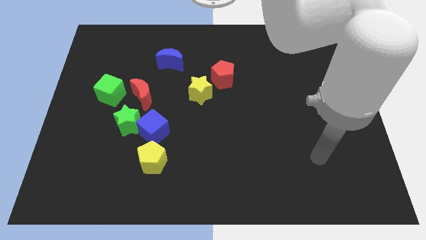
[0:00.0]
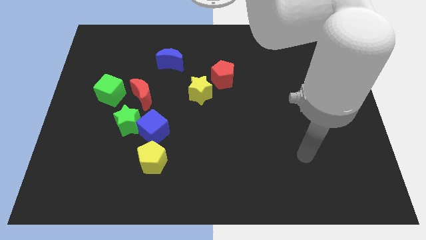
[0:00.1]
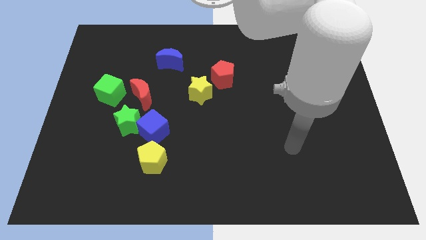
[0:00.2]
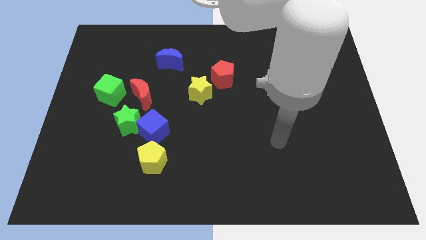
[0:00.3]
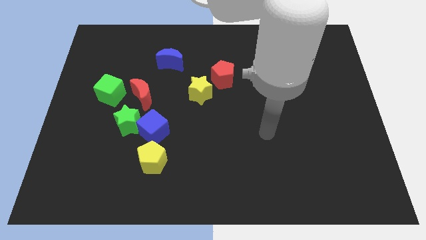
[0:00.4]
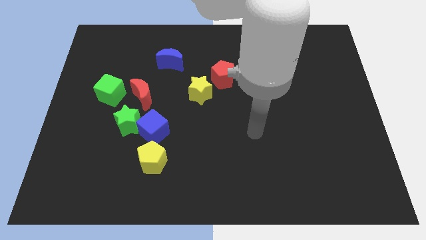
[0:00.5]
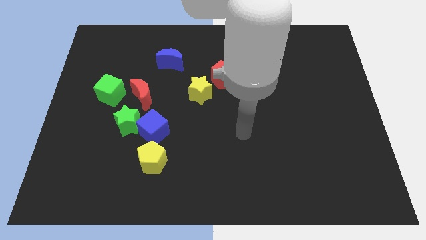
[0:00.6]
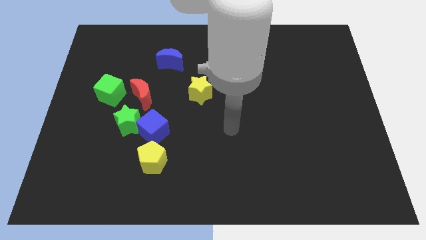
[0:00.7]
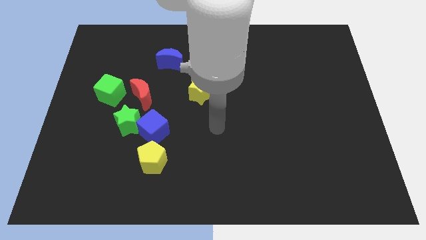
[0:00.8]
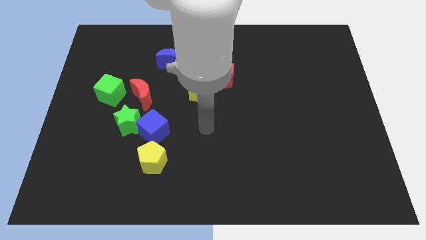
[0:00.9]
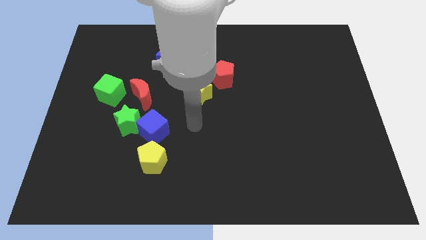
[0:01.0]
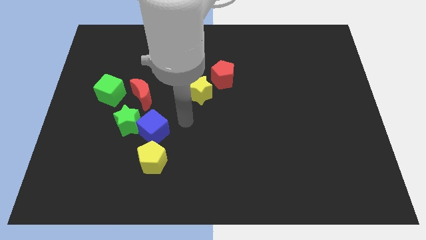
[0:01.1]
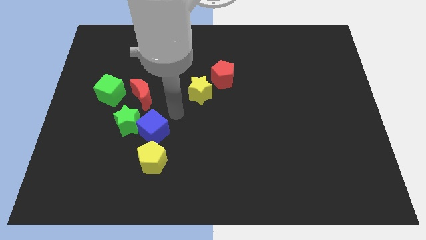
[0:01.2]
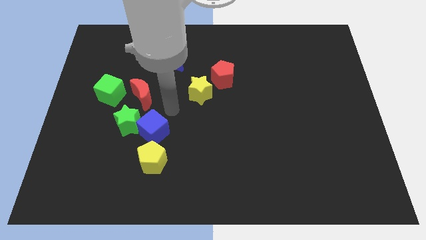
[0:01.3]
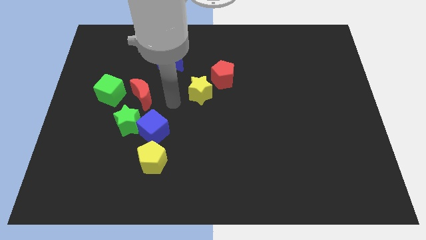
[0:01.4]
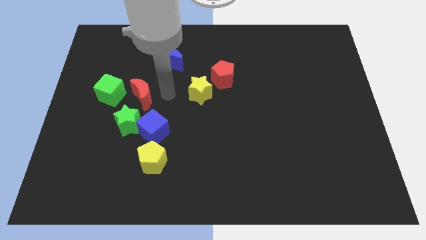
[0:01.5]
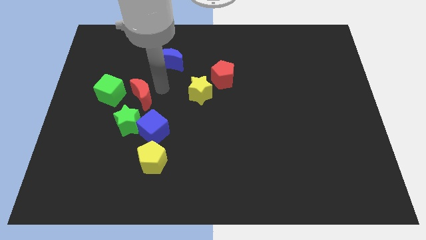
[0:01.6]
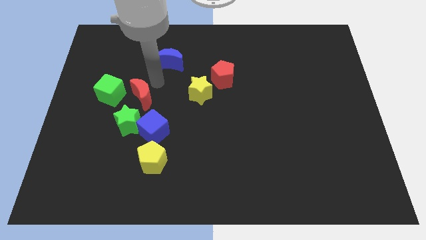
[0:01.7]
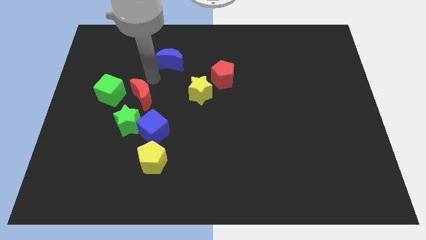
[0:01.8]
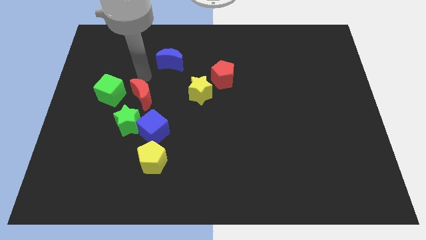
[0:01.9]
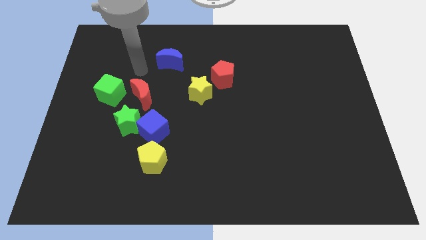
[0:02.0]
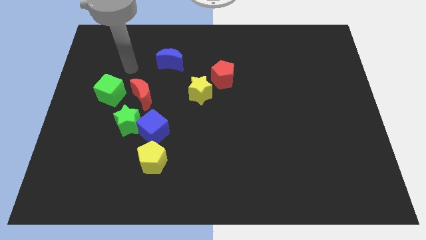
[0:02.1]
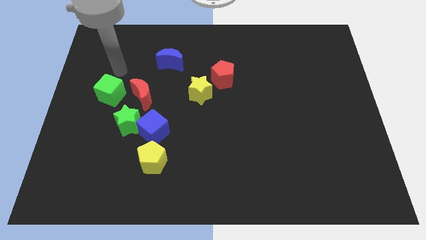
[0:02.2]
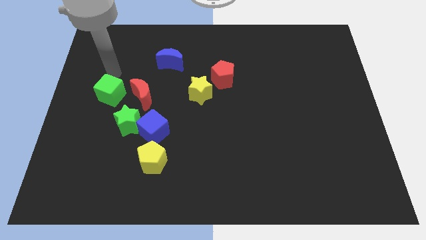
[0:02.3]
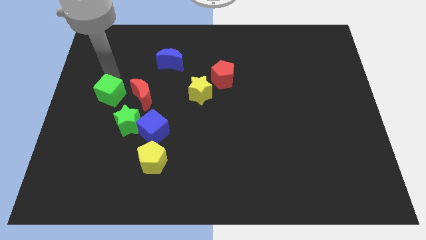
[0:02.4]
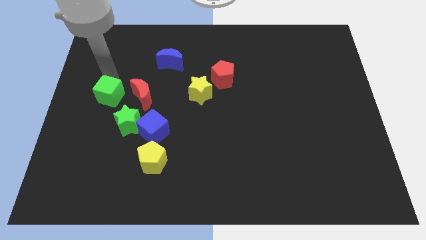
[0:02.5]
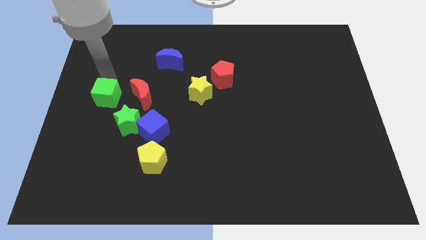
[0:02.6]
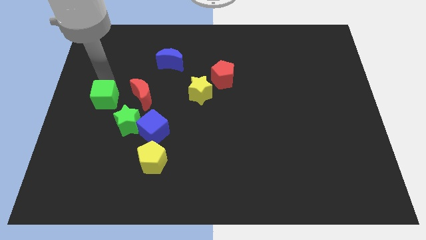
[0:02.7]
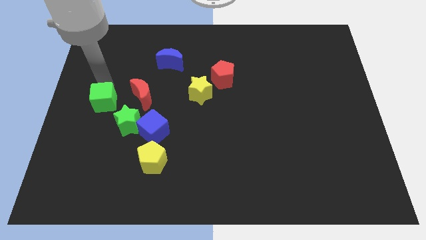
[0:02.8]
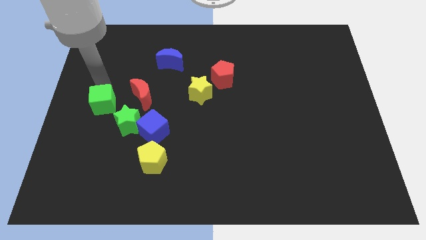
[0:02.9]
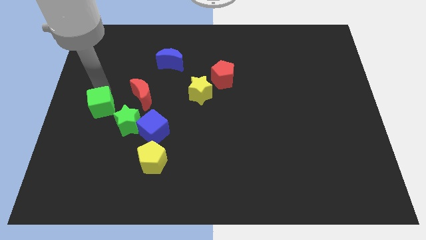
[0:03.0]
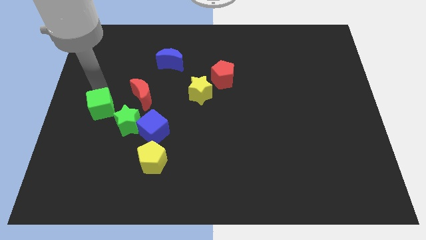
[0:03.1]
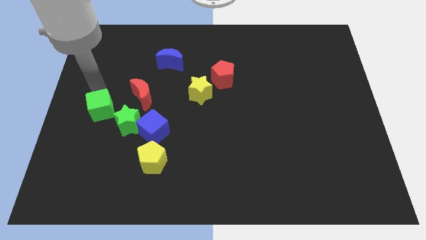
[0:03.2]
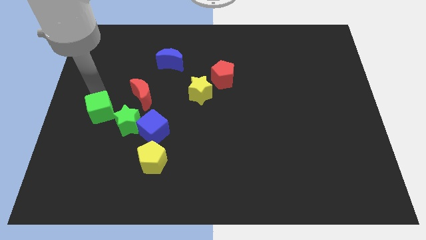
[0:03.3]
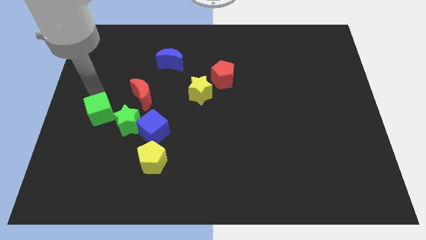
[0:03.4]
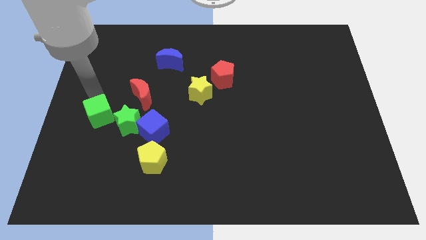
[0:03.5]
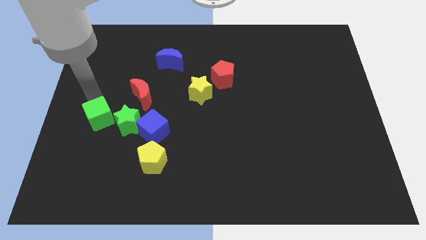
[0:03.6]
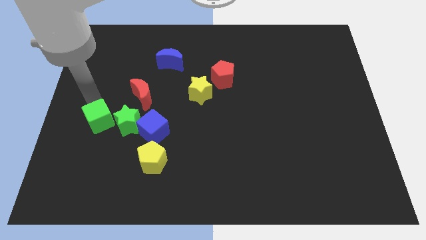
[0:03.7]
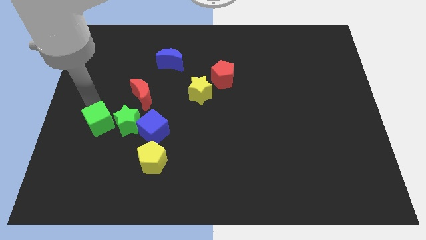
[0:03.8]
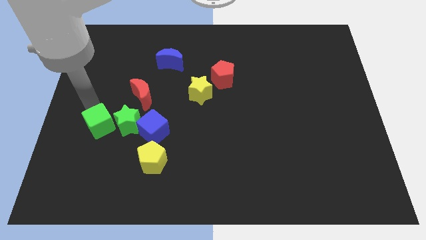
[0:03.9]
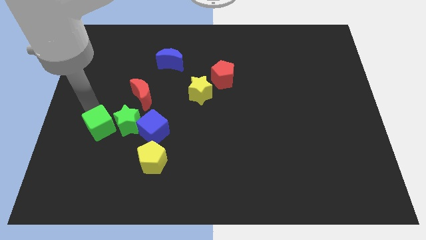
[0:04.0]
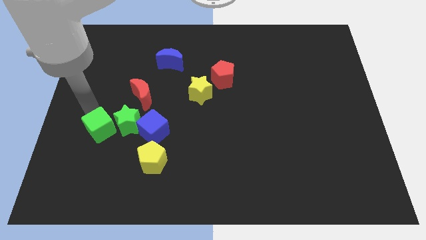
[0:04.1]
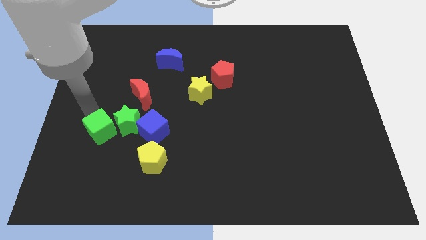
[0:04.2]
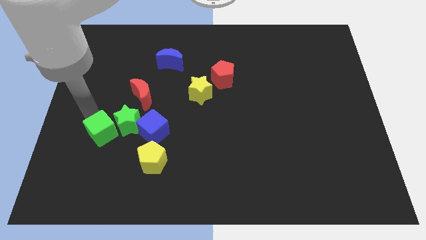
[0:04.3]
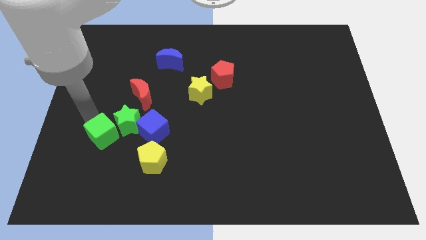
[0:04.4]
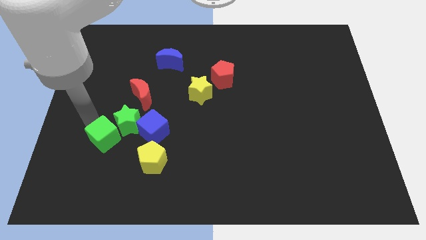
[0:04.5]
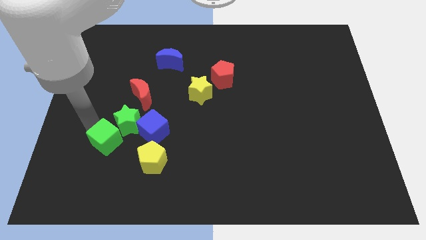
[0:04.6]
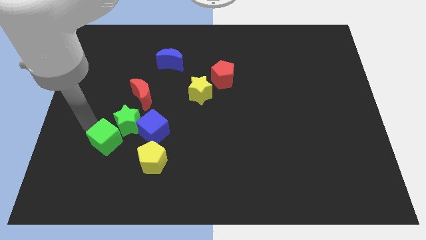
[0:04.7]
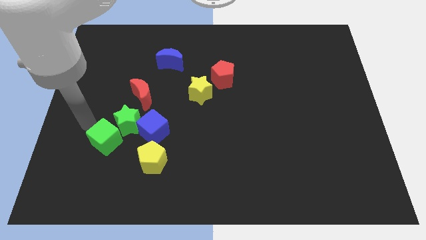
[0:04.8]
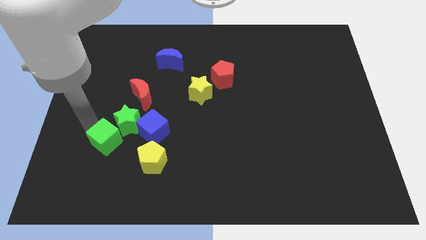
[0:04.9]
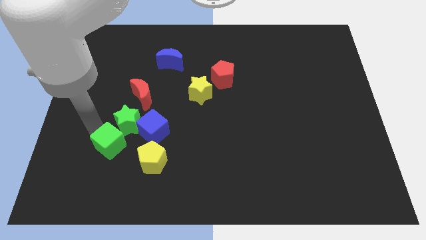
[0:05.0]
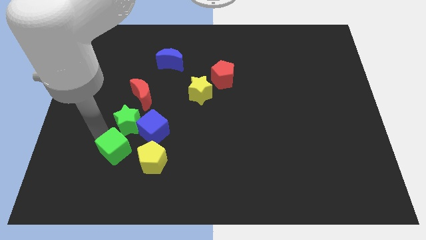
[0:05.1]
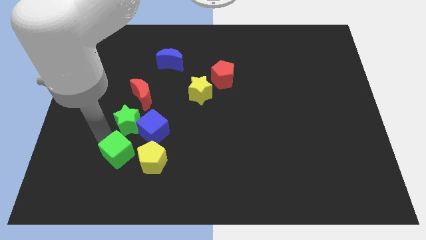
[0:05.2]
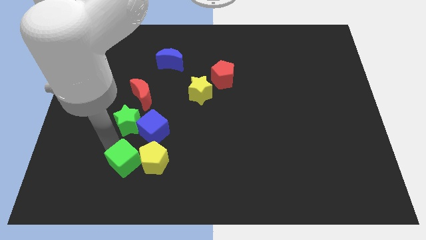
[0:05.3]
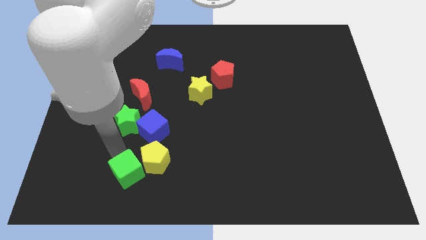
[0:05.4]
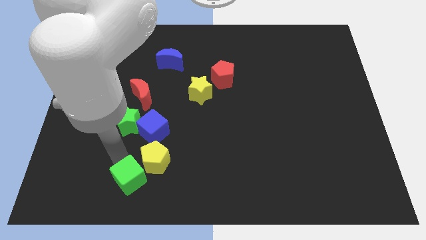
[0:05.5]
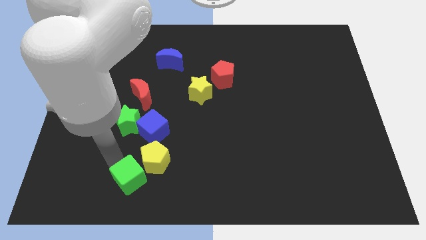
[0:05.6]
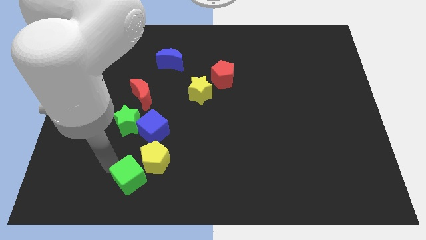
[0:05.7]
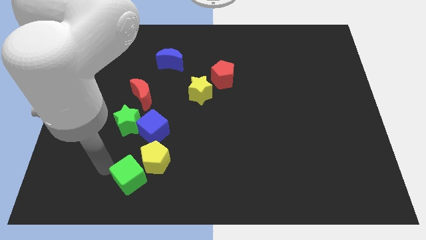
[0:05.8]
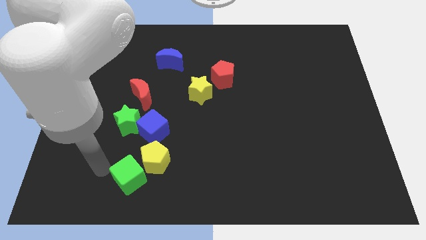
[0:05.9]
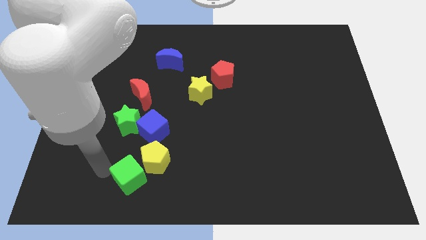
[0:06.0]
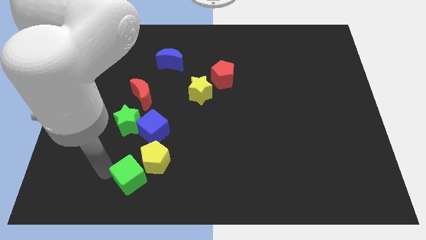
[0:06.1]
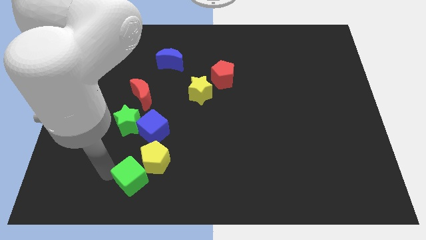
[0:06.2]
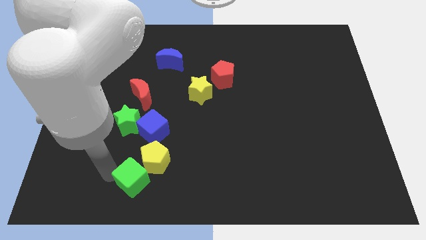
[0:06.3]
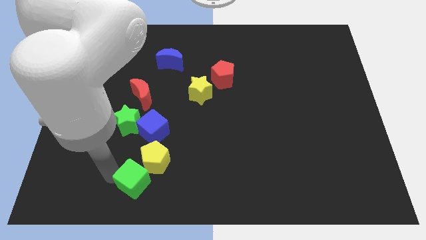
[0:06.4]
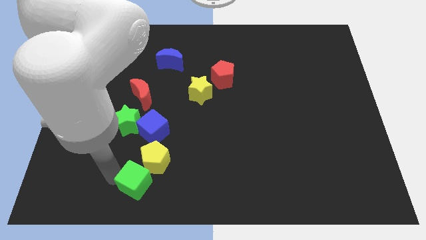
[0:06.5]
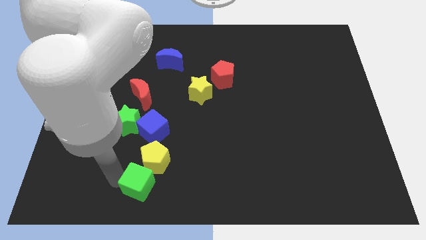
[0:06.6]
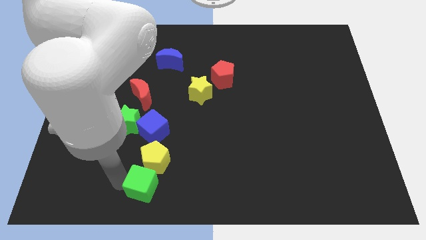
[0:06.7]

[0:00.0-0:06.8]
move the green cube diagonally downwards and to the right

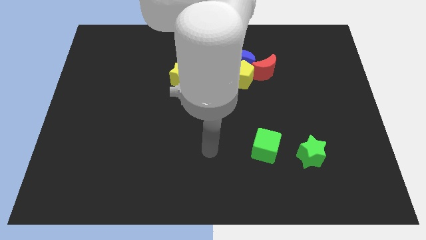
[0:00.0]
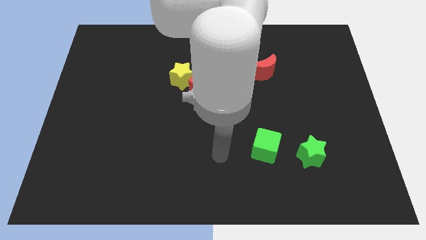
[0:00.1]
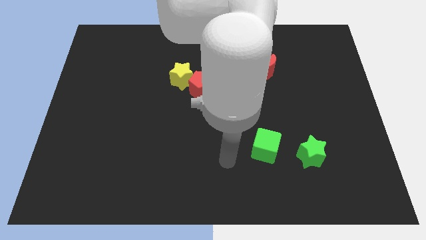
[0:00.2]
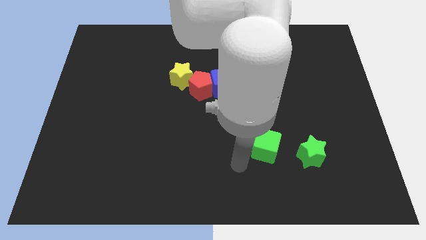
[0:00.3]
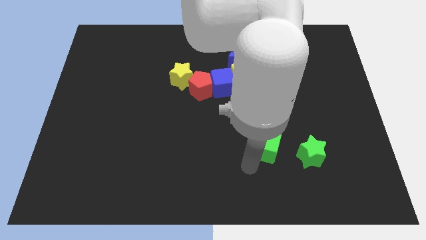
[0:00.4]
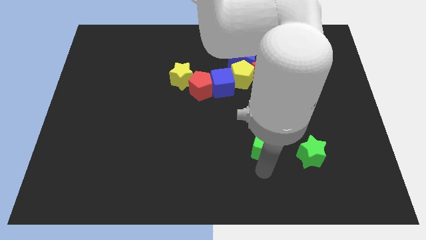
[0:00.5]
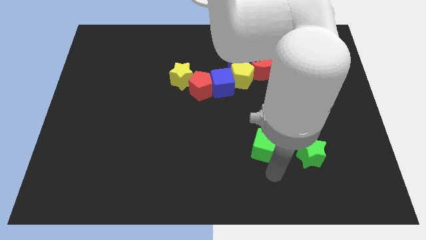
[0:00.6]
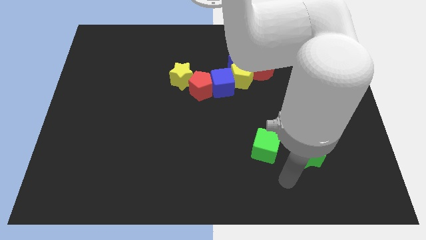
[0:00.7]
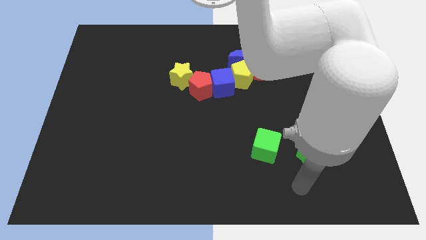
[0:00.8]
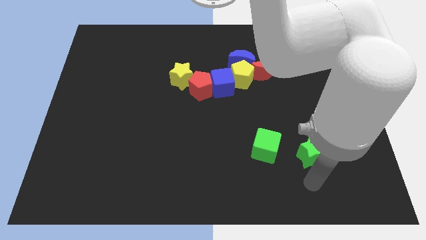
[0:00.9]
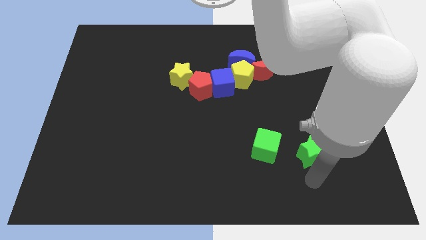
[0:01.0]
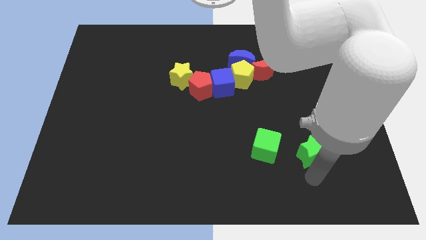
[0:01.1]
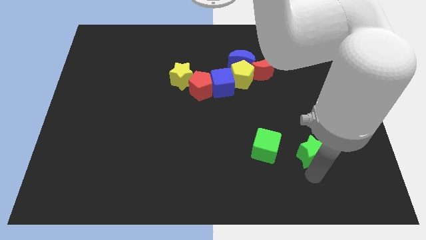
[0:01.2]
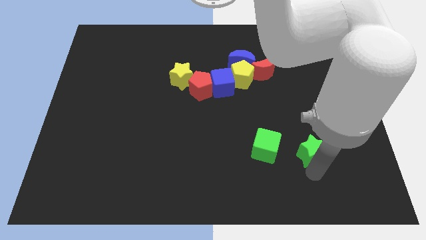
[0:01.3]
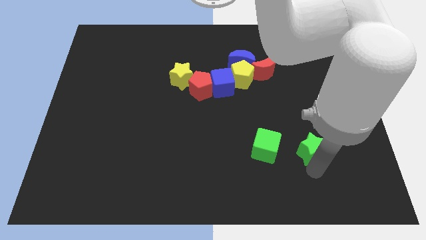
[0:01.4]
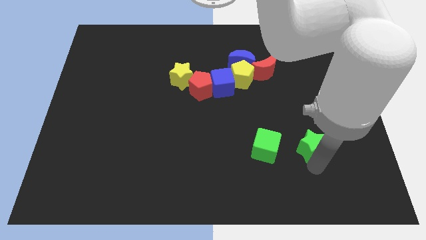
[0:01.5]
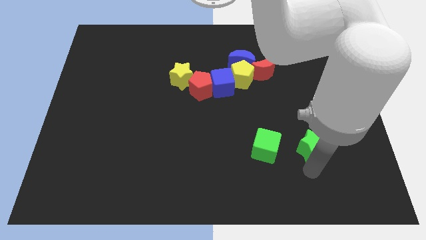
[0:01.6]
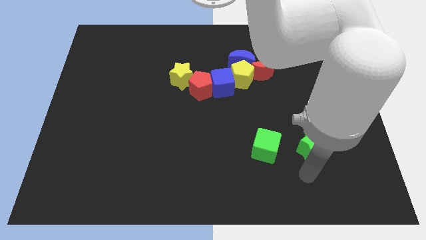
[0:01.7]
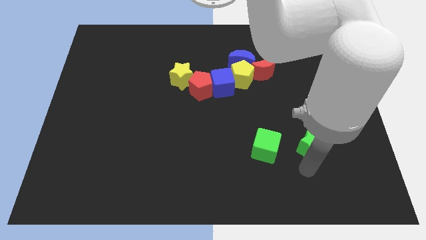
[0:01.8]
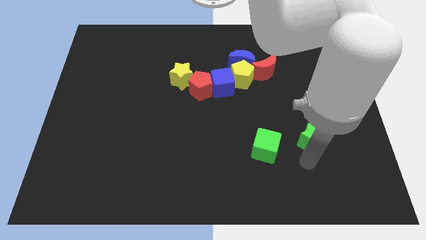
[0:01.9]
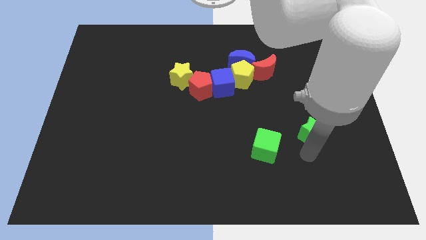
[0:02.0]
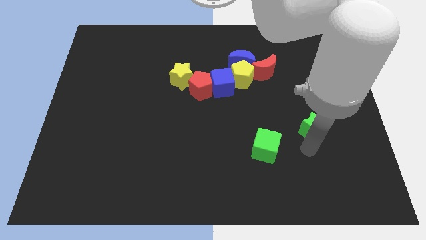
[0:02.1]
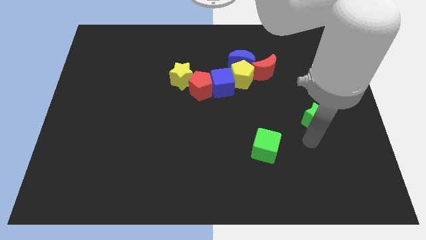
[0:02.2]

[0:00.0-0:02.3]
slide the green star up a little bit
